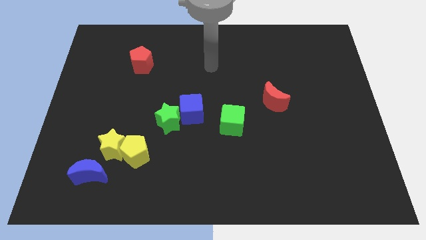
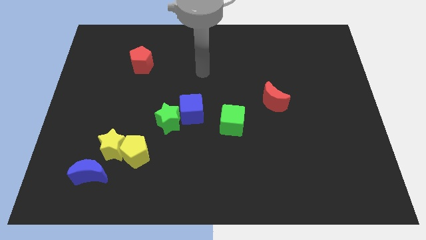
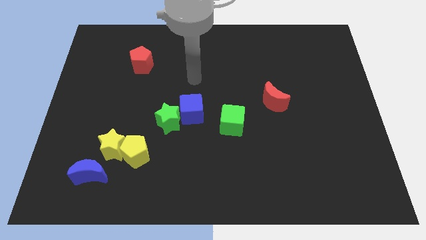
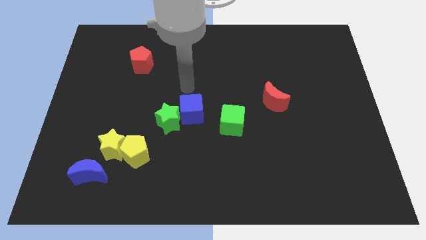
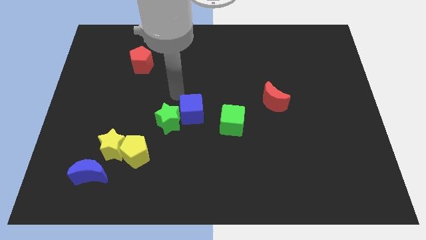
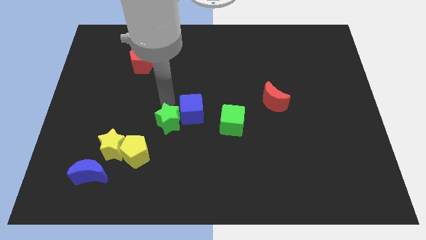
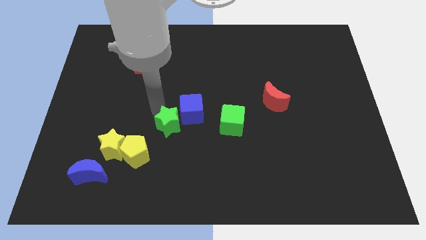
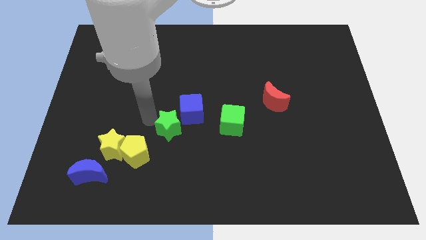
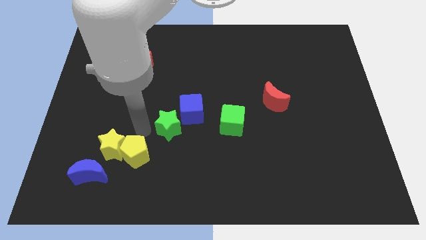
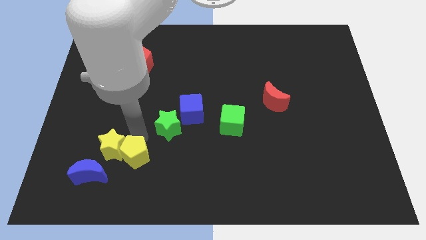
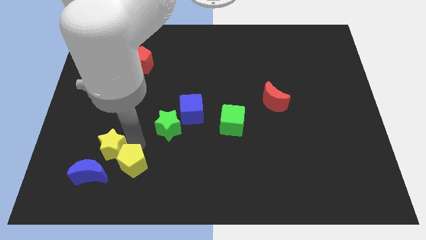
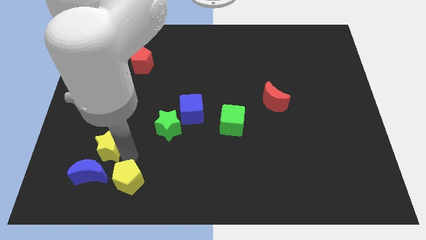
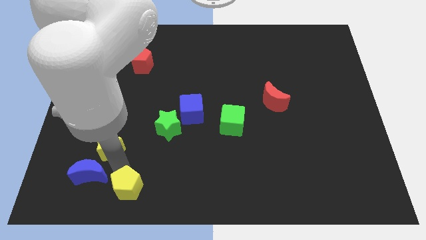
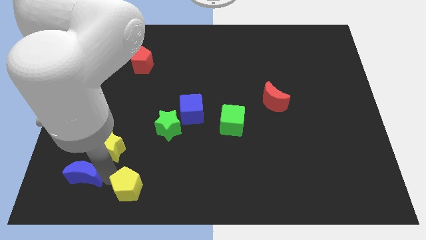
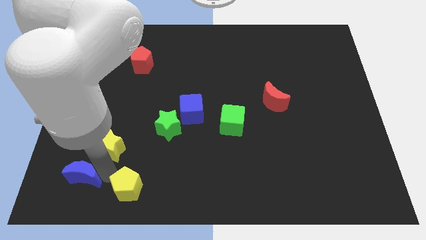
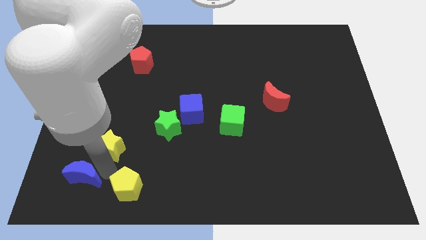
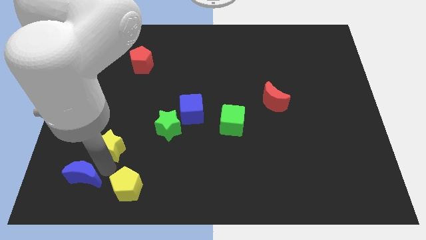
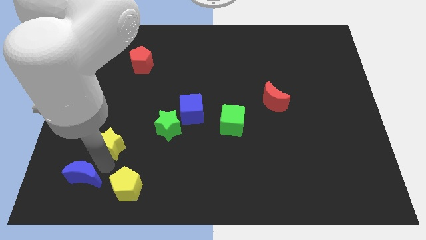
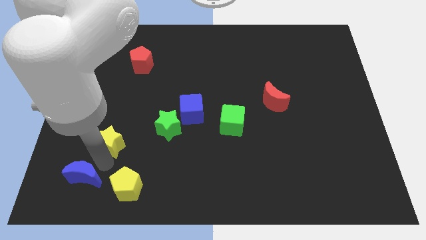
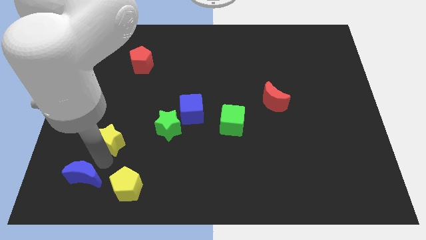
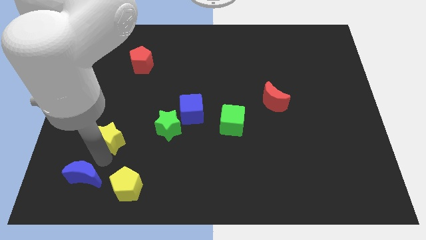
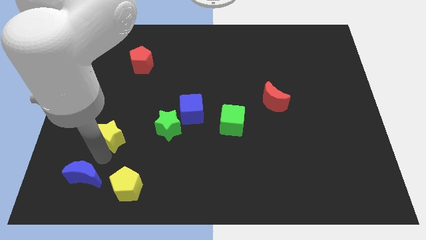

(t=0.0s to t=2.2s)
pull the yellow star apart from the yellow pentagon and blue moon

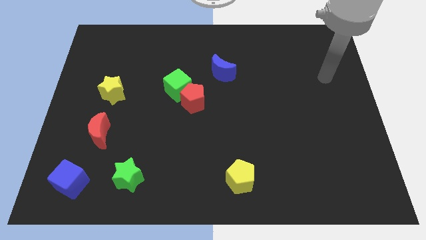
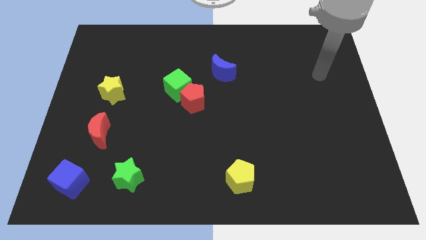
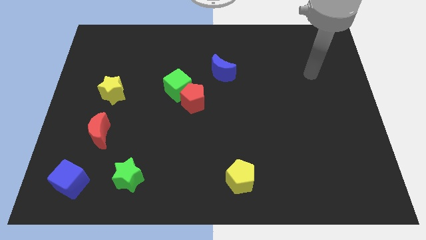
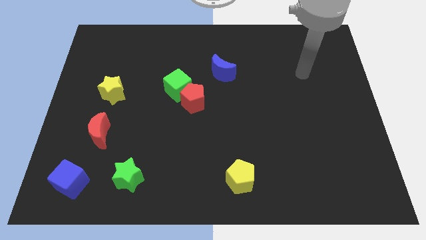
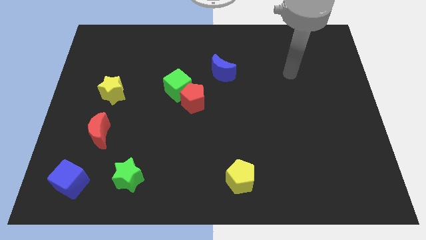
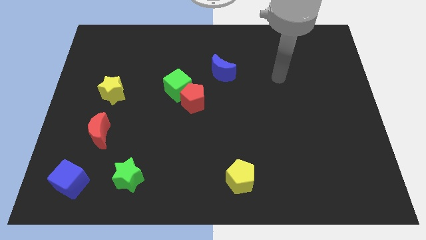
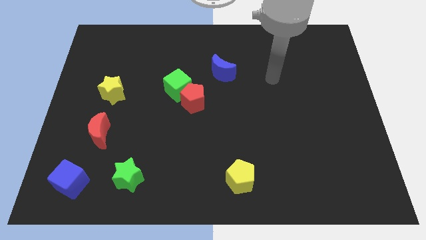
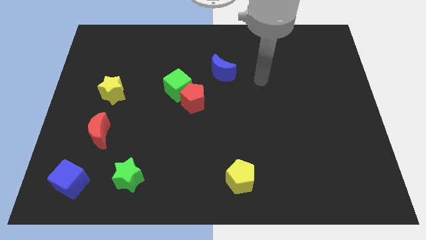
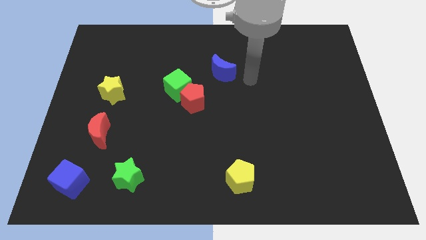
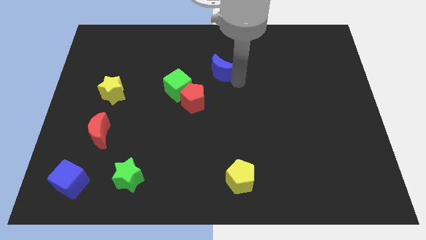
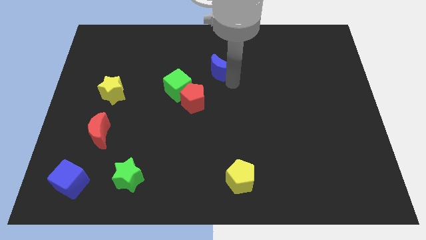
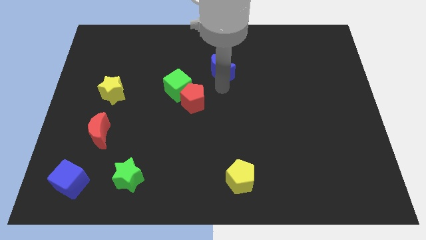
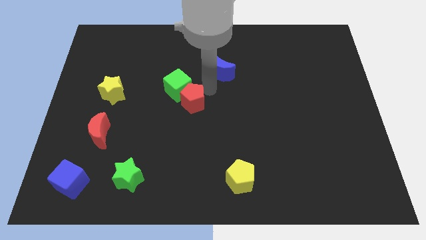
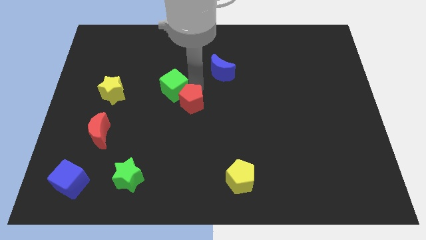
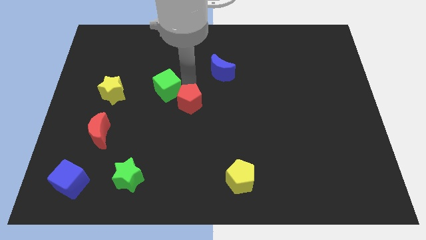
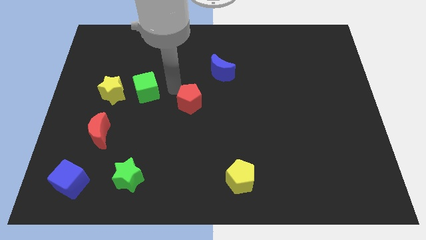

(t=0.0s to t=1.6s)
pull the red pentagon apart from the green cube

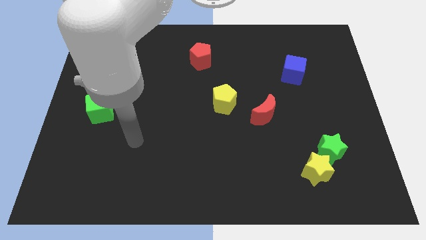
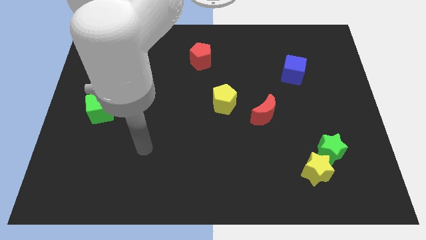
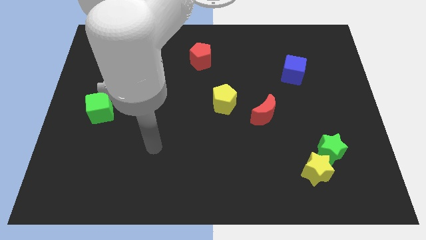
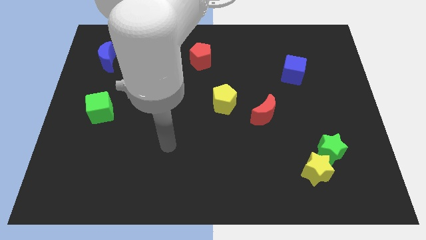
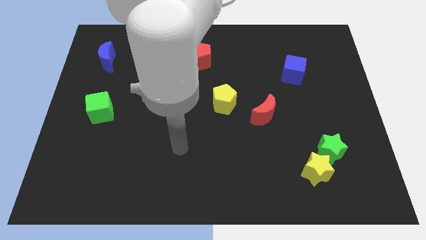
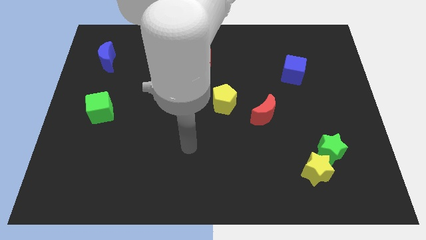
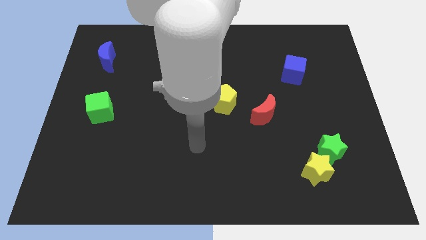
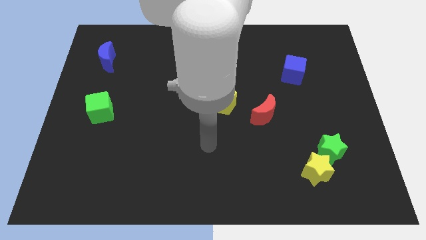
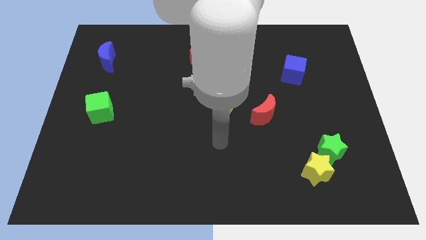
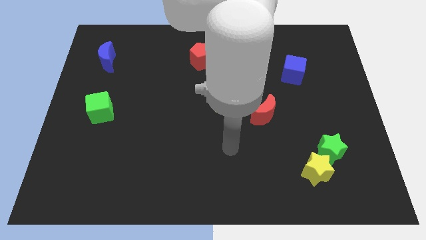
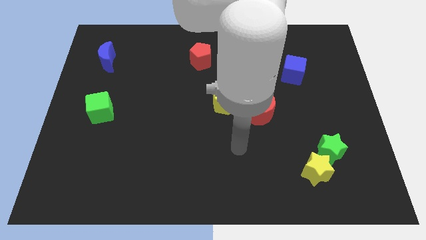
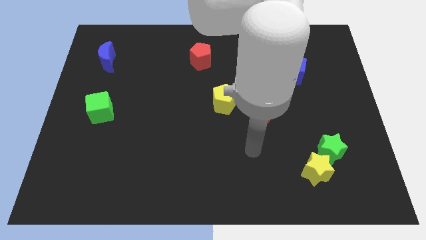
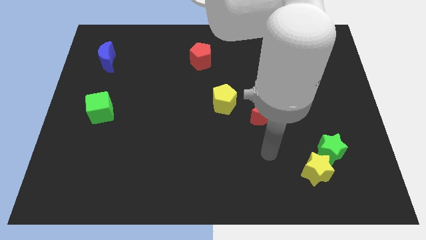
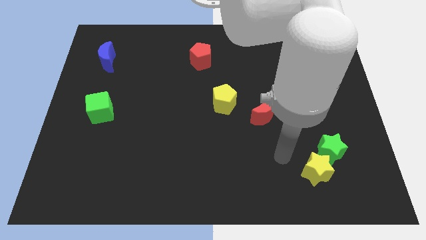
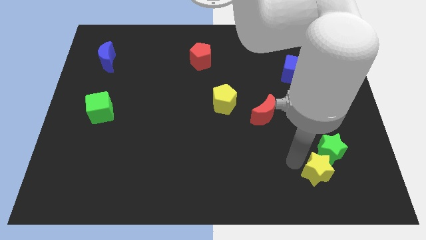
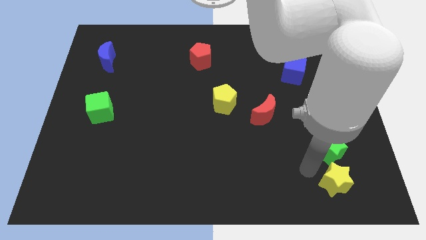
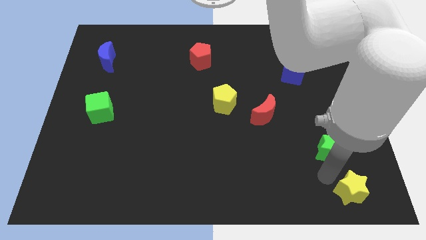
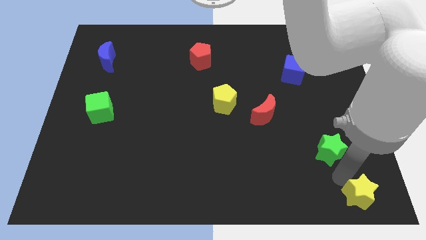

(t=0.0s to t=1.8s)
separate the green star from the yellow star

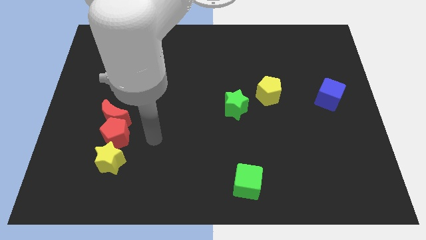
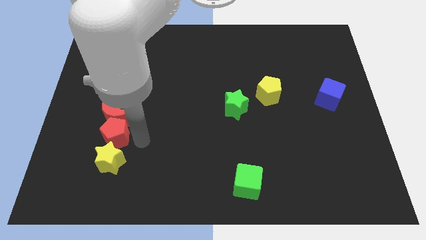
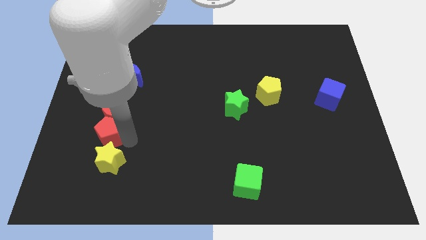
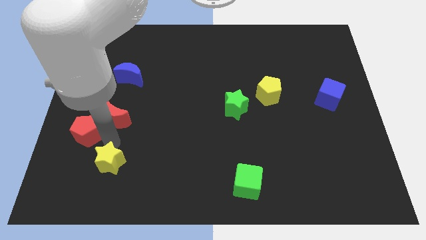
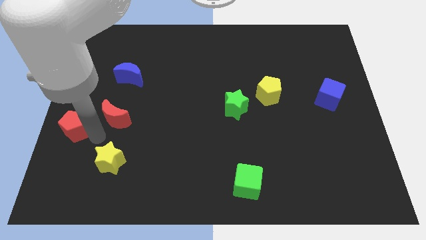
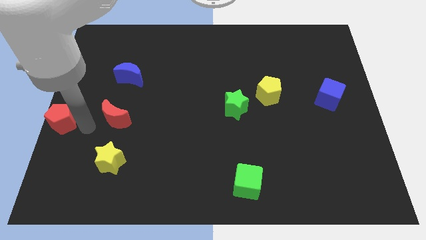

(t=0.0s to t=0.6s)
separate the red moon from the red pentagon

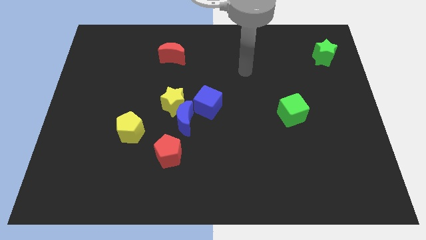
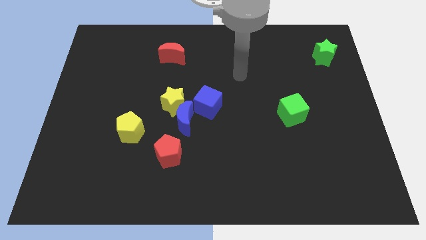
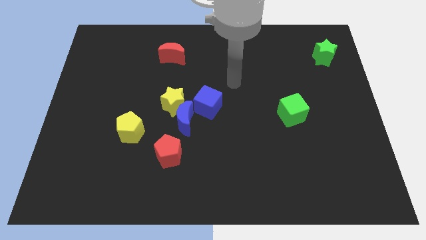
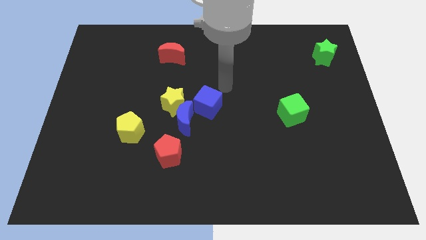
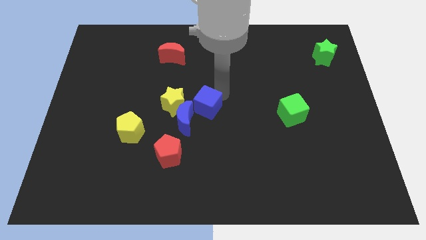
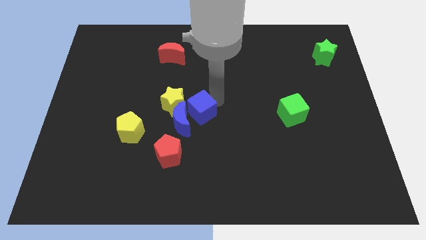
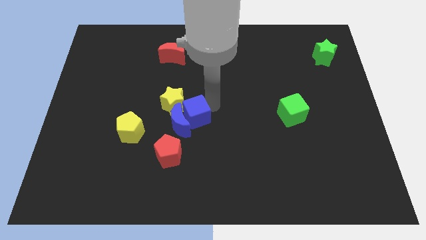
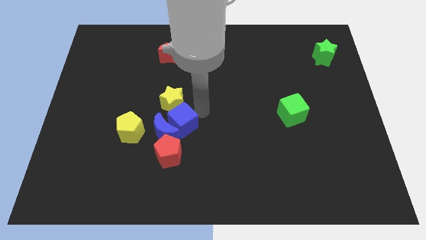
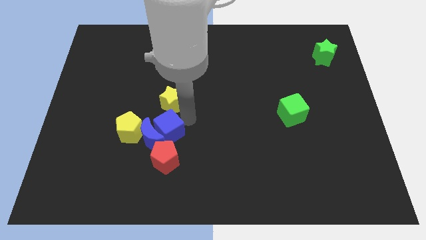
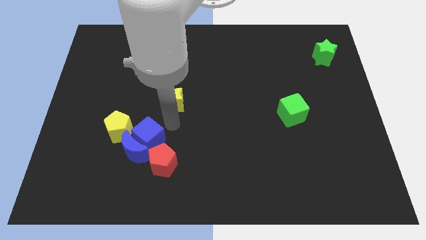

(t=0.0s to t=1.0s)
move the yellow star away from the blue moon and blue cube

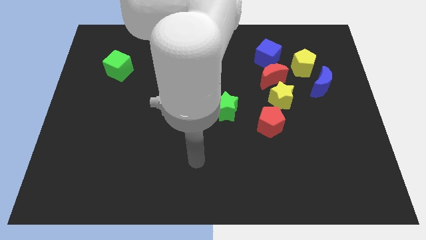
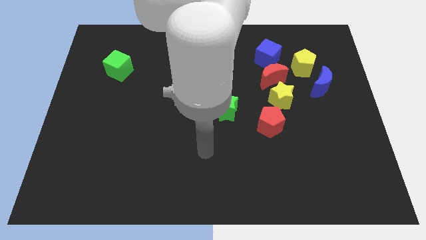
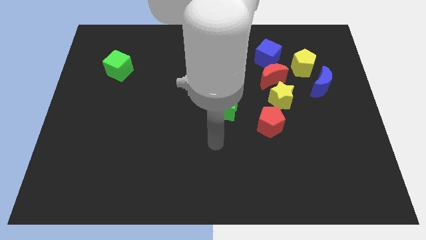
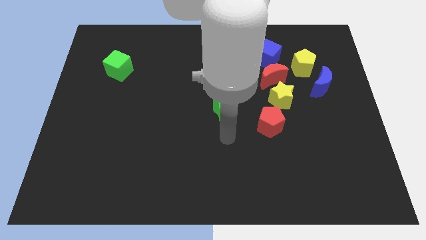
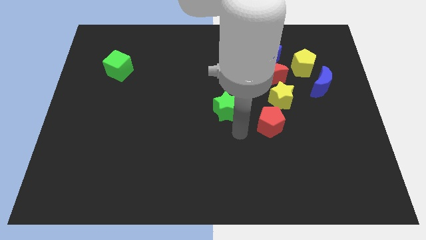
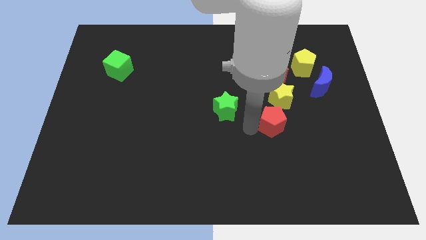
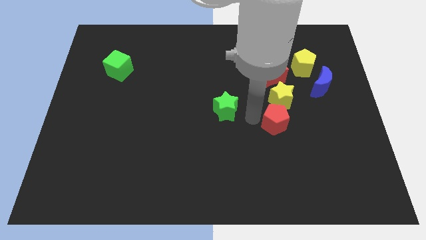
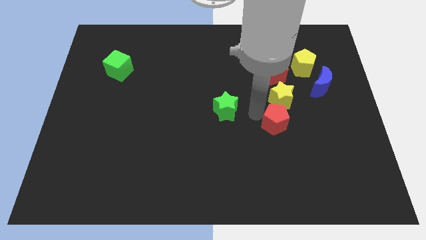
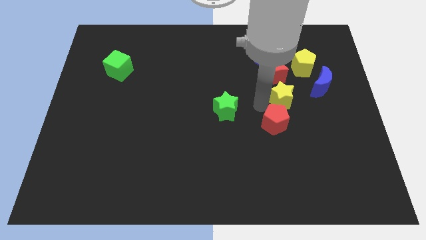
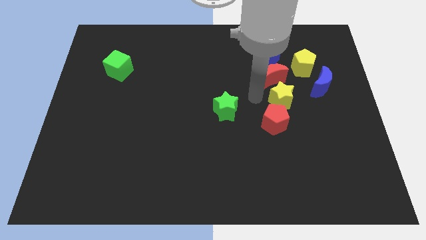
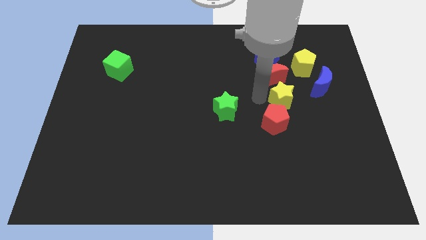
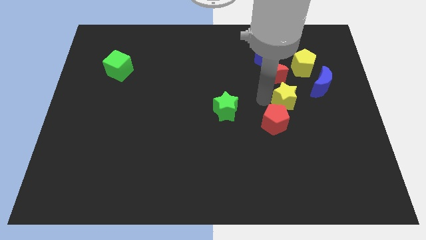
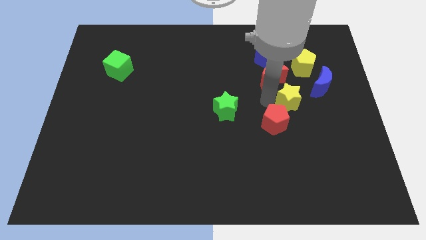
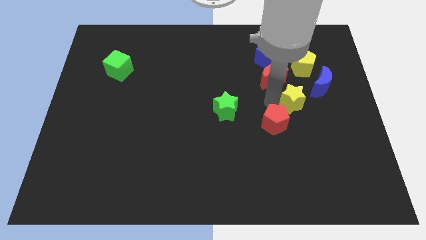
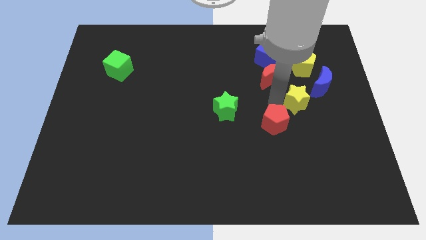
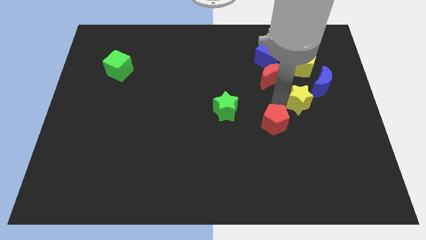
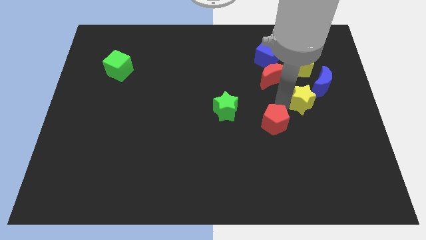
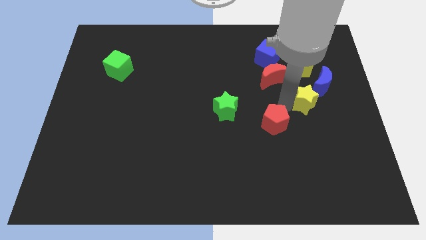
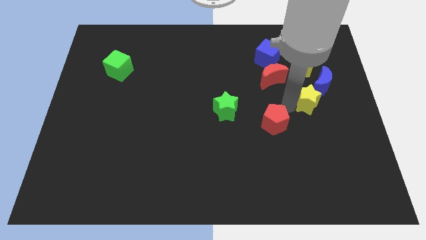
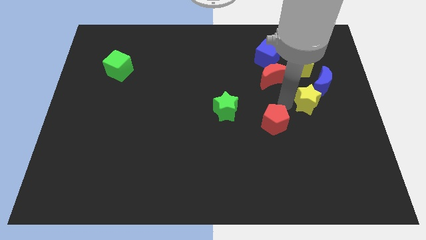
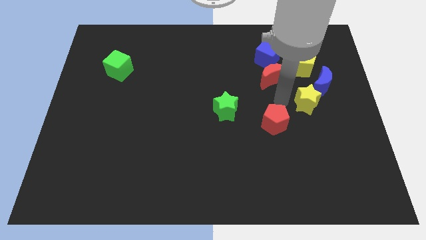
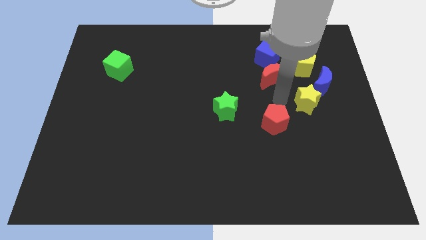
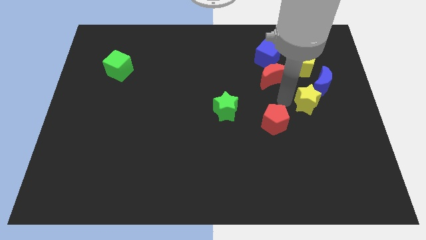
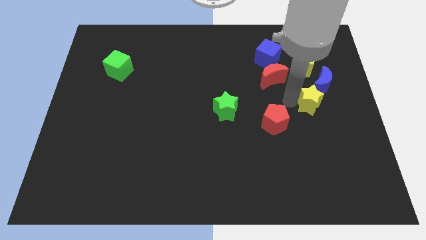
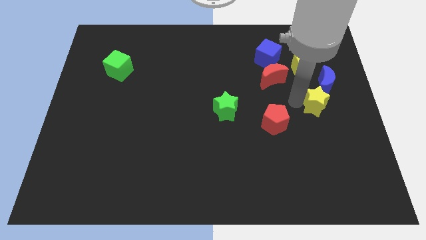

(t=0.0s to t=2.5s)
move the yellow star away from the red moon and red pentagon
